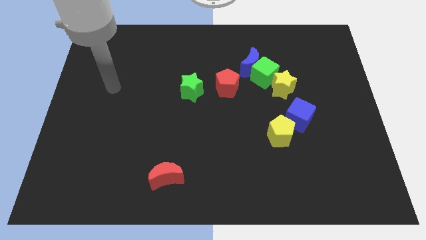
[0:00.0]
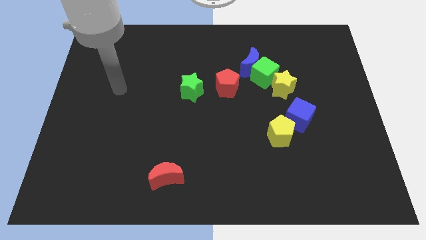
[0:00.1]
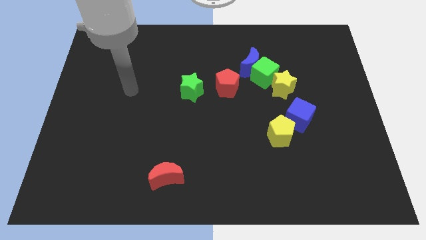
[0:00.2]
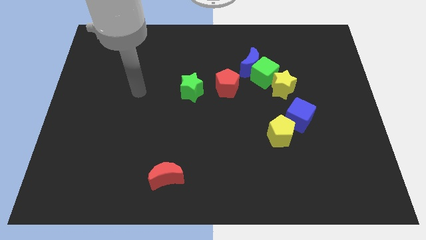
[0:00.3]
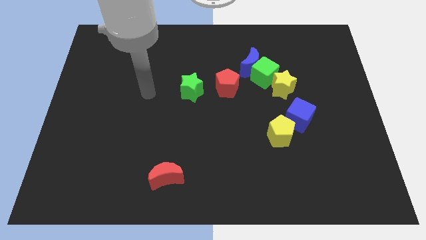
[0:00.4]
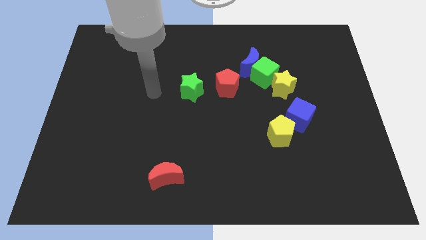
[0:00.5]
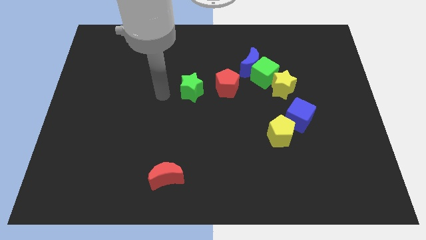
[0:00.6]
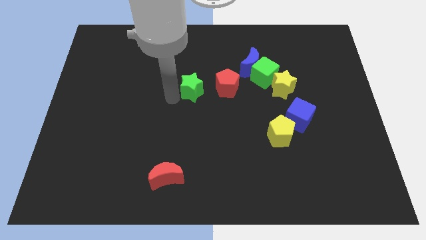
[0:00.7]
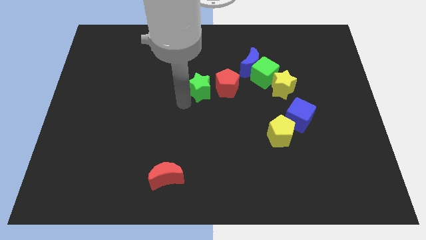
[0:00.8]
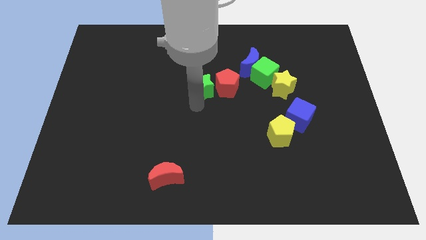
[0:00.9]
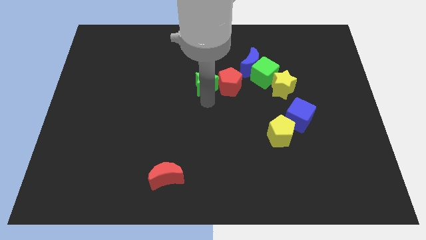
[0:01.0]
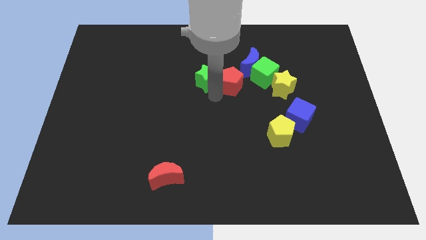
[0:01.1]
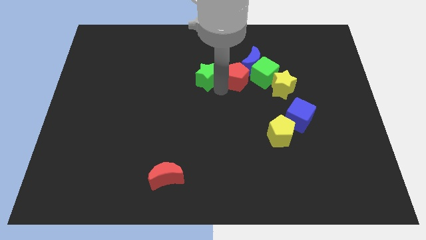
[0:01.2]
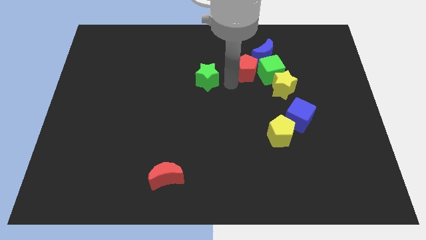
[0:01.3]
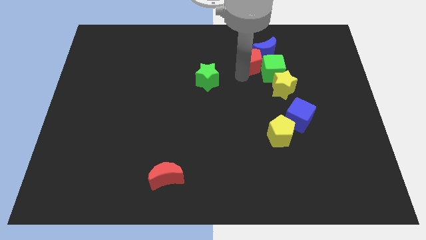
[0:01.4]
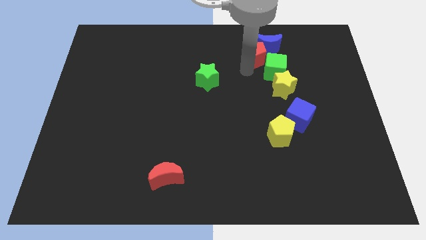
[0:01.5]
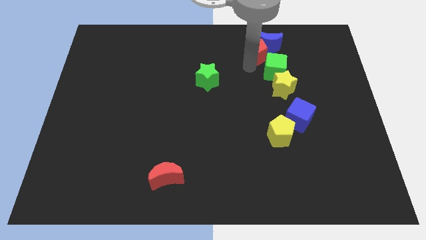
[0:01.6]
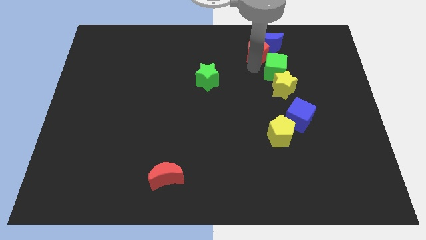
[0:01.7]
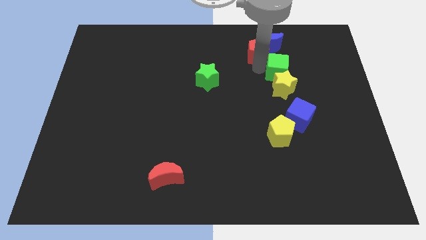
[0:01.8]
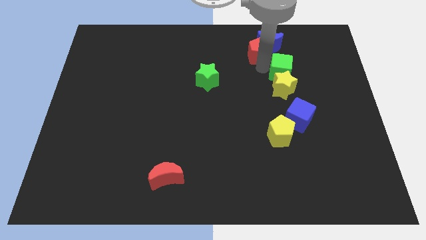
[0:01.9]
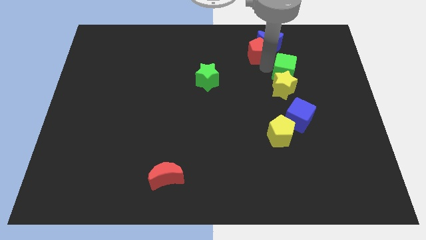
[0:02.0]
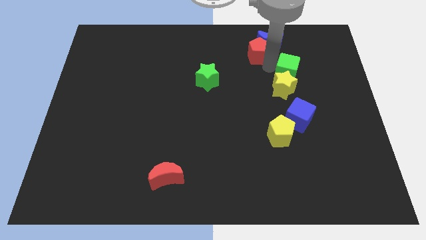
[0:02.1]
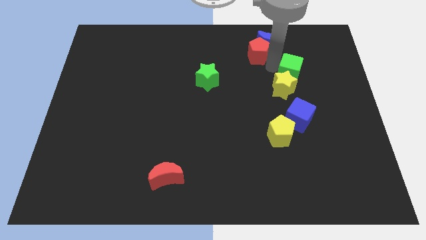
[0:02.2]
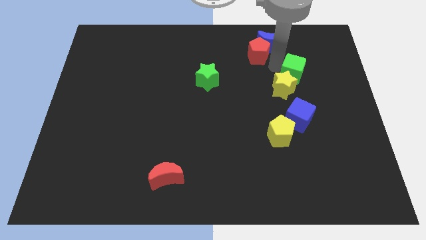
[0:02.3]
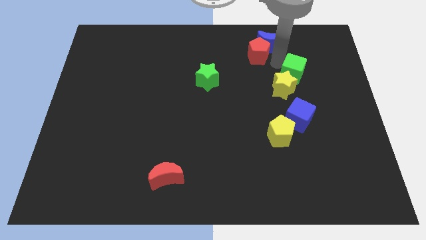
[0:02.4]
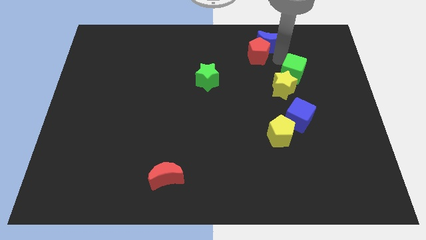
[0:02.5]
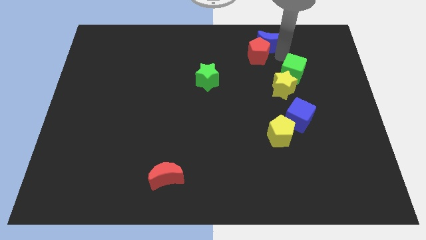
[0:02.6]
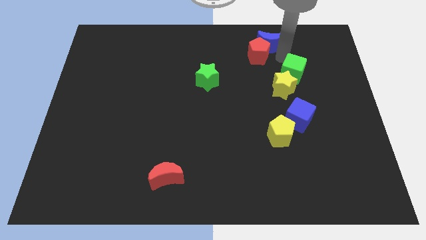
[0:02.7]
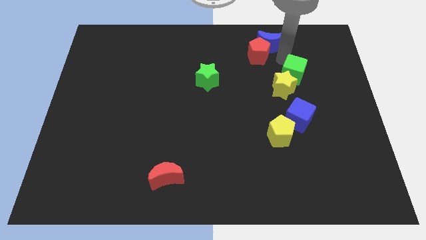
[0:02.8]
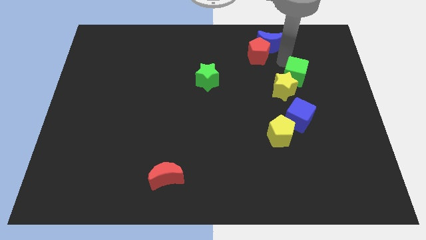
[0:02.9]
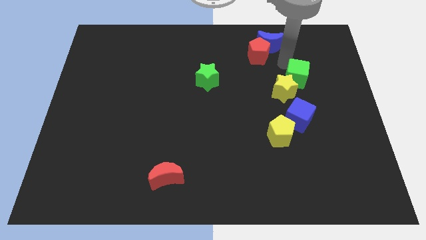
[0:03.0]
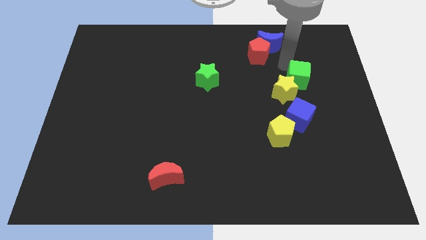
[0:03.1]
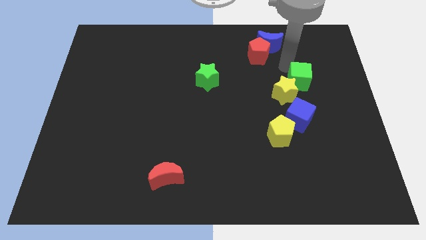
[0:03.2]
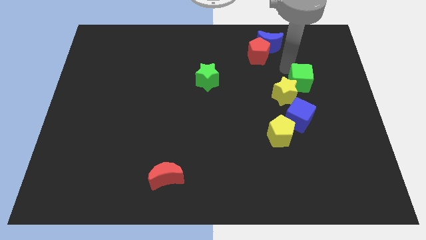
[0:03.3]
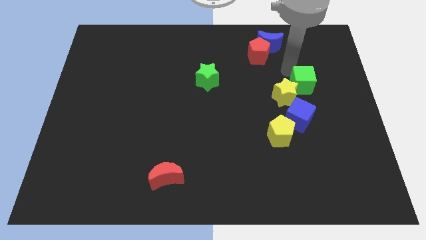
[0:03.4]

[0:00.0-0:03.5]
slide the green cube down and to the right diagonally a bit

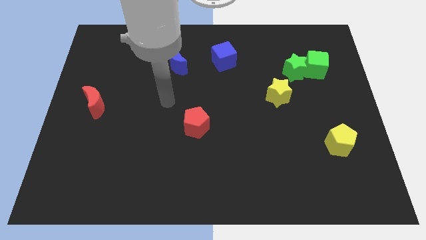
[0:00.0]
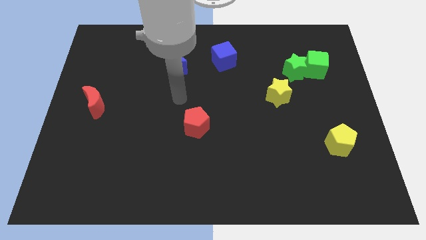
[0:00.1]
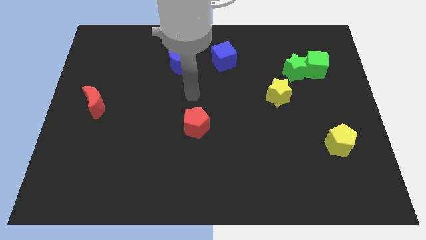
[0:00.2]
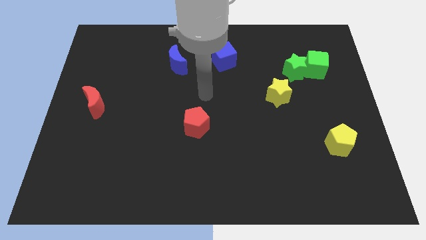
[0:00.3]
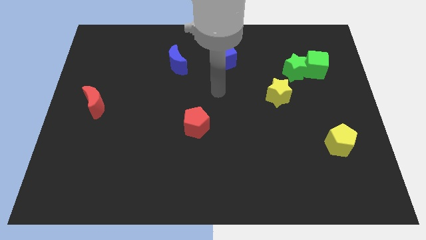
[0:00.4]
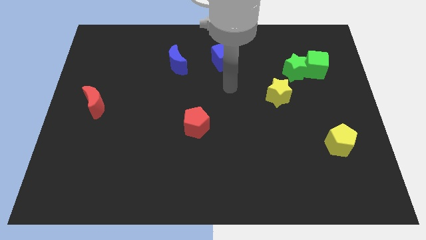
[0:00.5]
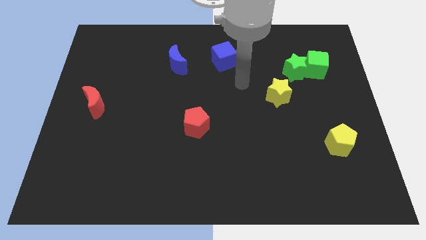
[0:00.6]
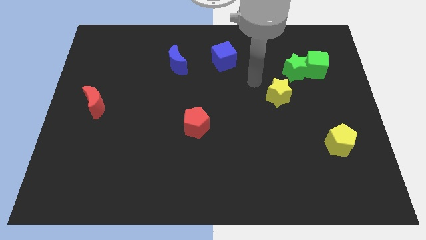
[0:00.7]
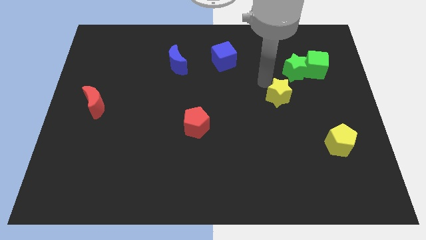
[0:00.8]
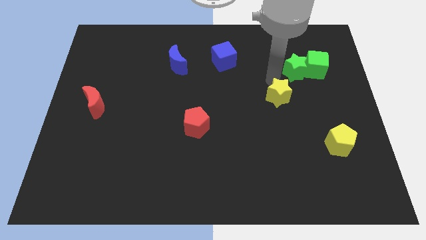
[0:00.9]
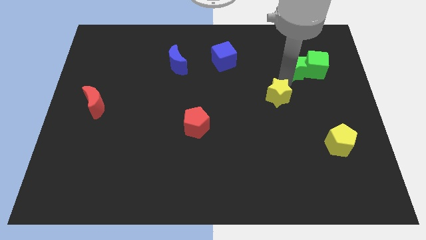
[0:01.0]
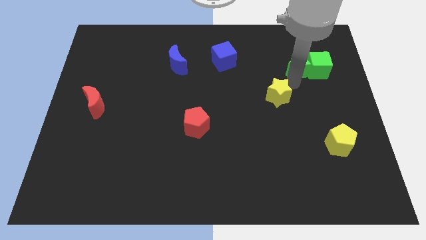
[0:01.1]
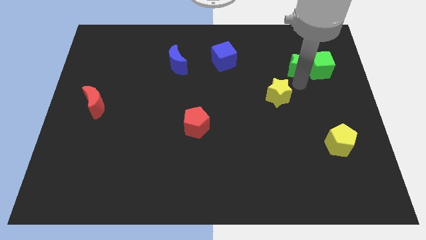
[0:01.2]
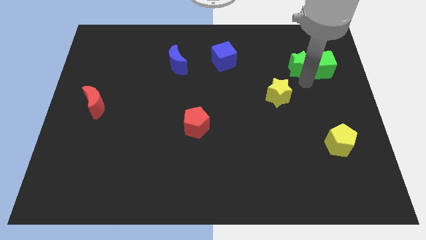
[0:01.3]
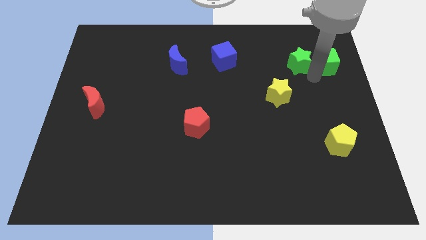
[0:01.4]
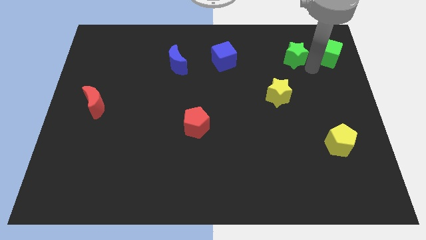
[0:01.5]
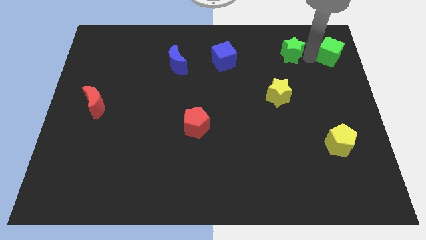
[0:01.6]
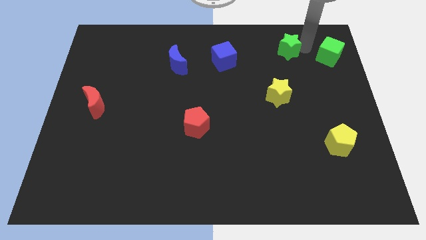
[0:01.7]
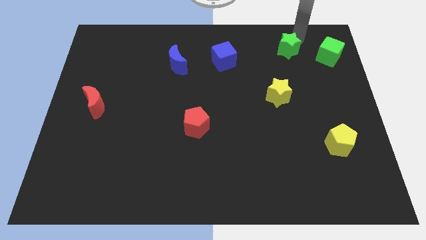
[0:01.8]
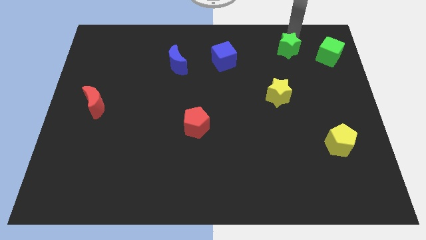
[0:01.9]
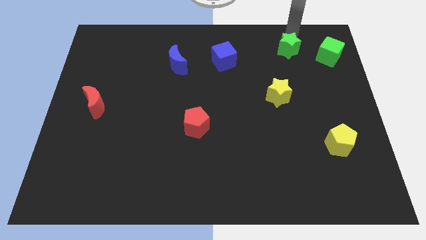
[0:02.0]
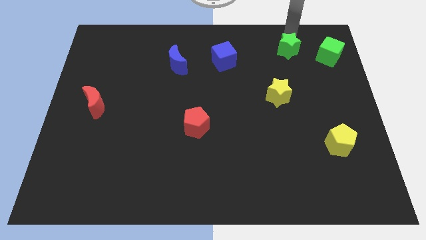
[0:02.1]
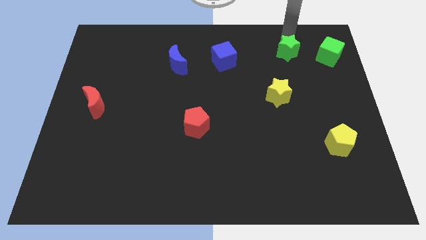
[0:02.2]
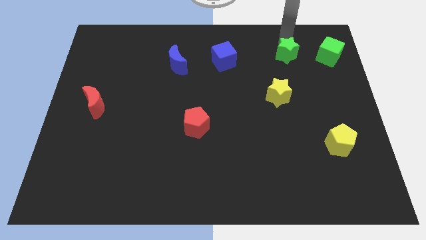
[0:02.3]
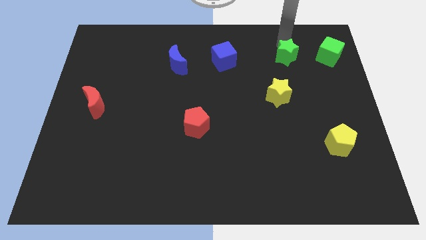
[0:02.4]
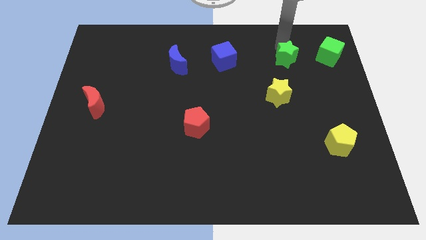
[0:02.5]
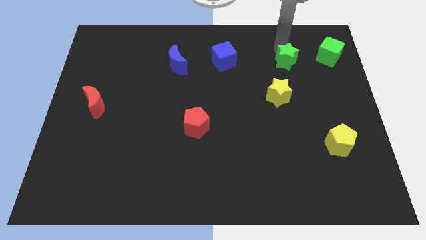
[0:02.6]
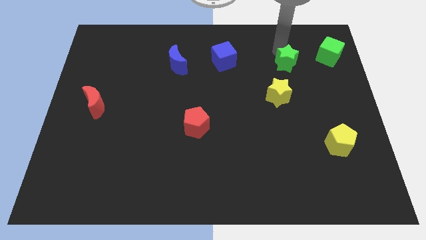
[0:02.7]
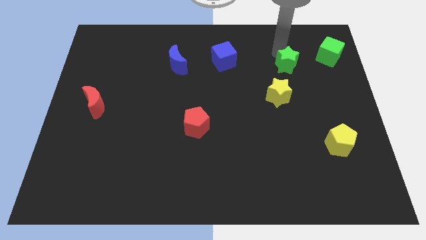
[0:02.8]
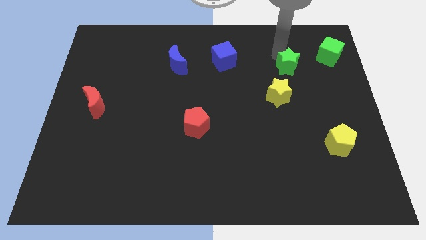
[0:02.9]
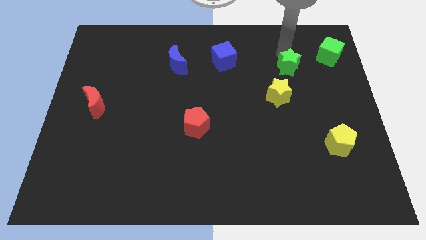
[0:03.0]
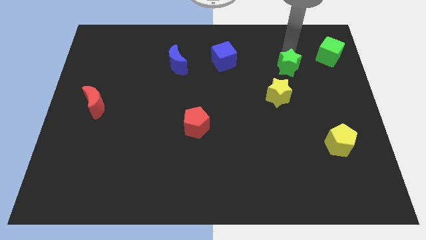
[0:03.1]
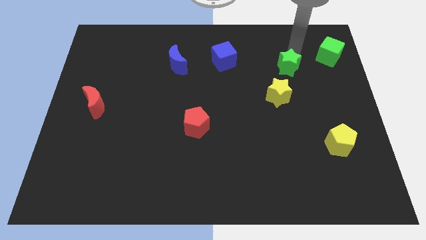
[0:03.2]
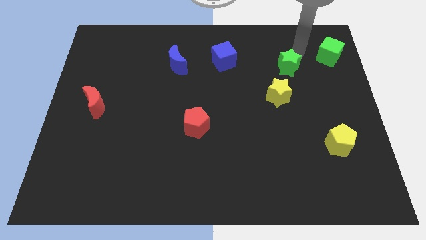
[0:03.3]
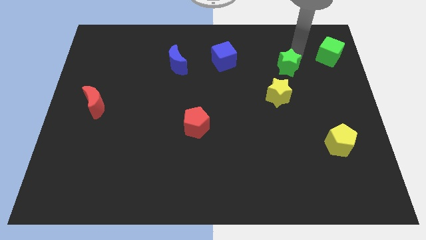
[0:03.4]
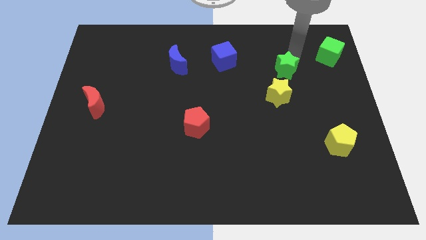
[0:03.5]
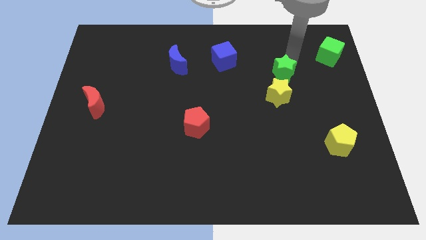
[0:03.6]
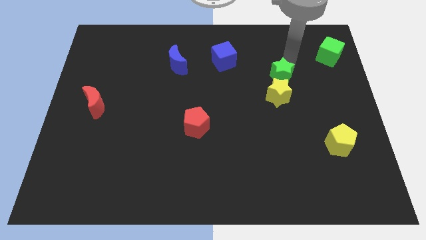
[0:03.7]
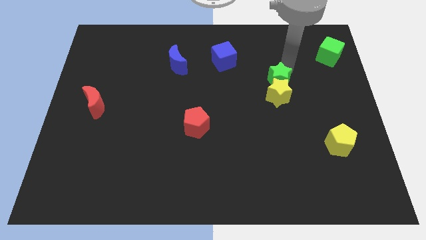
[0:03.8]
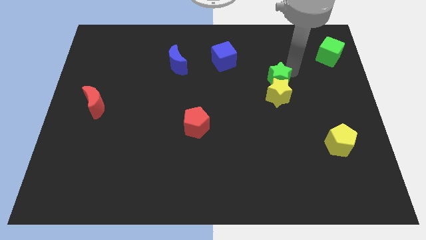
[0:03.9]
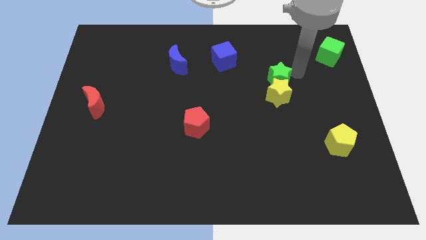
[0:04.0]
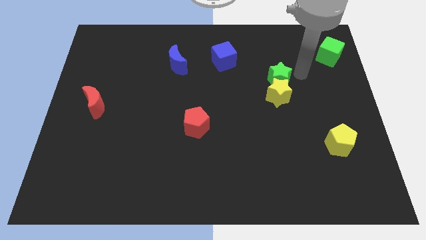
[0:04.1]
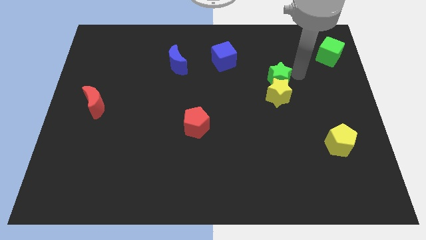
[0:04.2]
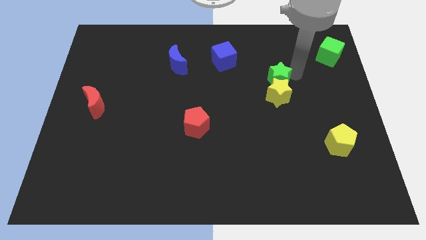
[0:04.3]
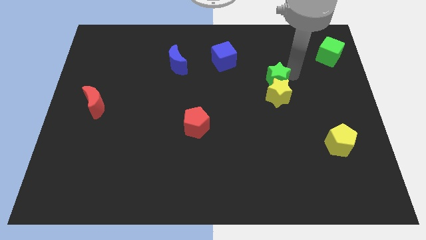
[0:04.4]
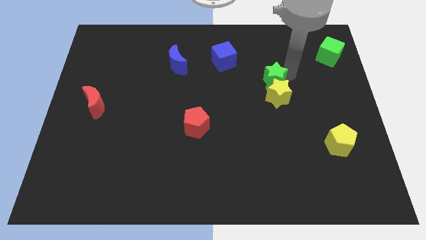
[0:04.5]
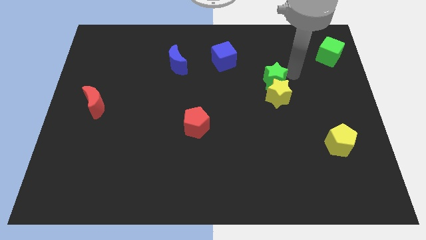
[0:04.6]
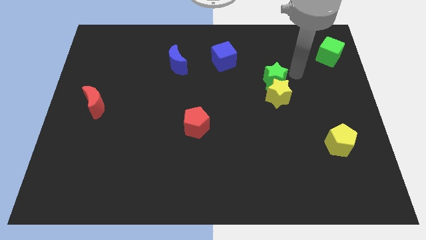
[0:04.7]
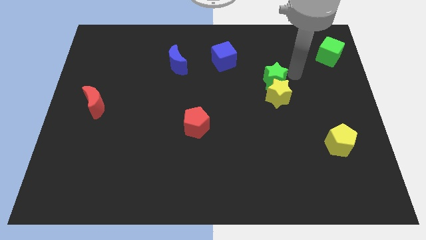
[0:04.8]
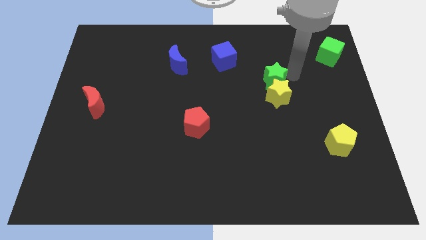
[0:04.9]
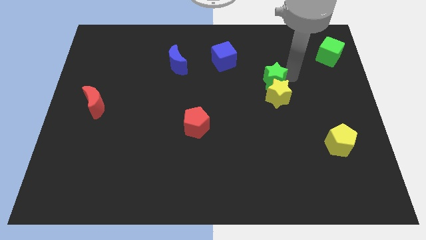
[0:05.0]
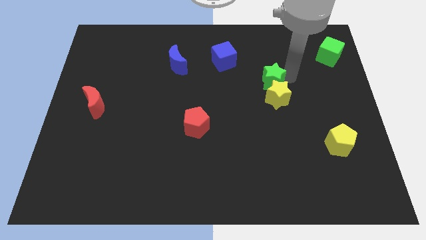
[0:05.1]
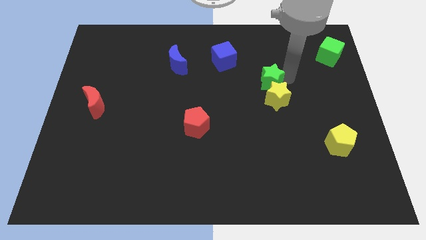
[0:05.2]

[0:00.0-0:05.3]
move the green star diagonally downwards and left slightly
